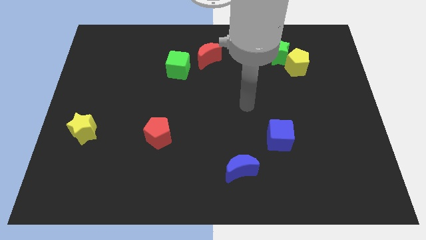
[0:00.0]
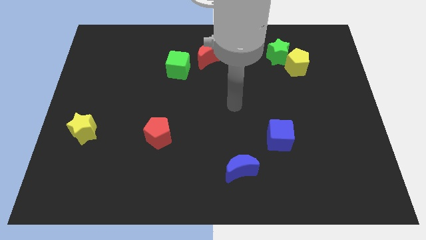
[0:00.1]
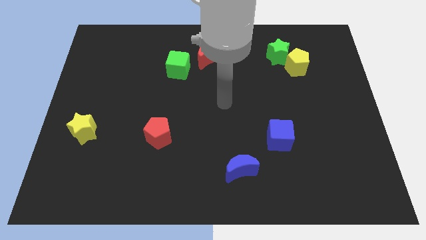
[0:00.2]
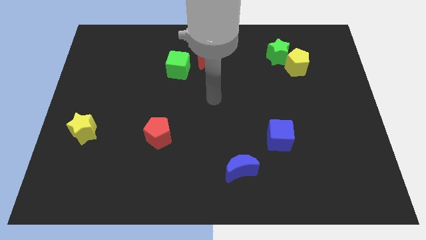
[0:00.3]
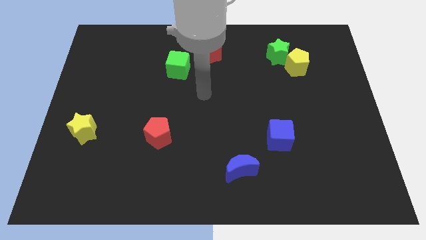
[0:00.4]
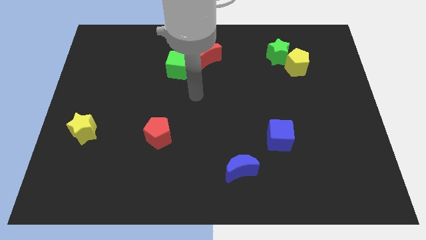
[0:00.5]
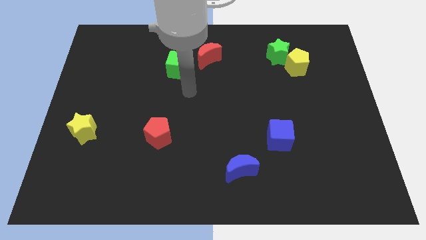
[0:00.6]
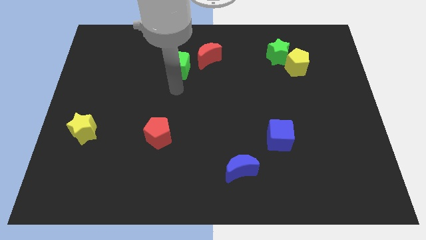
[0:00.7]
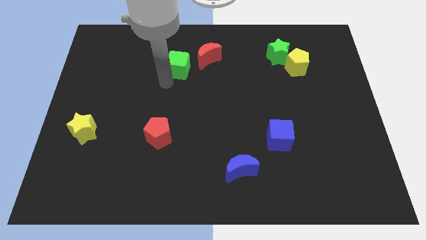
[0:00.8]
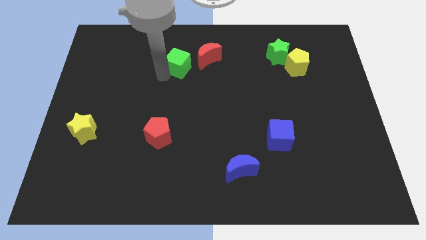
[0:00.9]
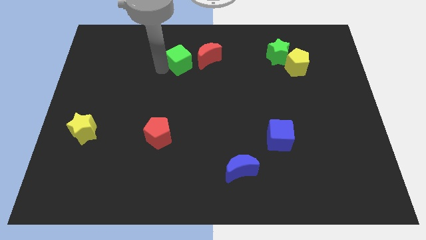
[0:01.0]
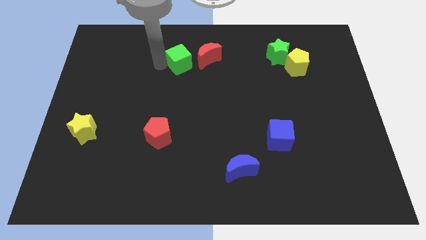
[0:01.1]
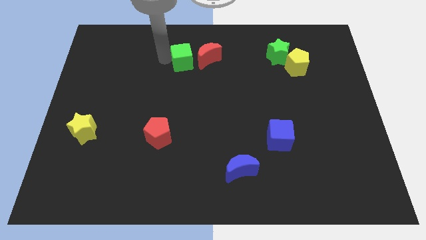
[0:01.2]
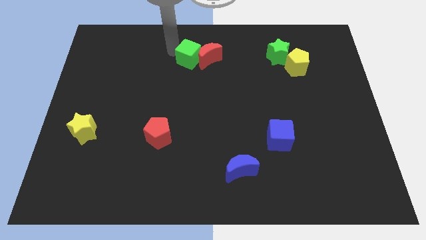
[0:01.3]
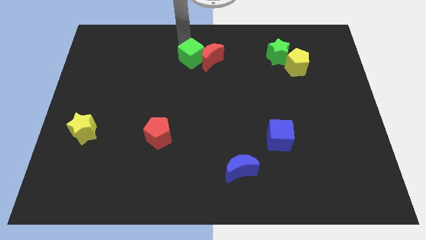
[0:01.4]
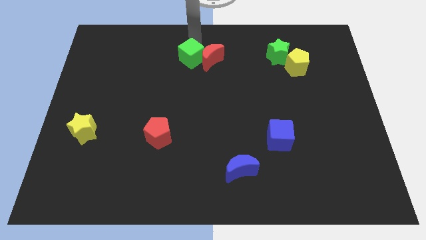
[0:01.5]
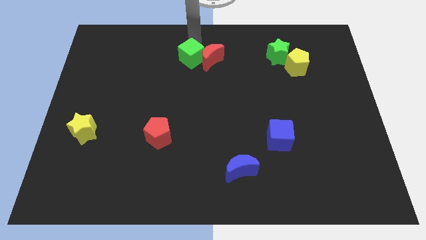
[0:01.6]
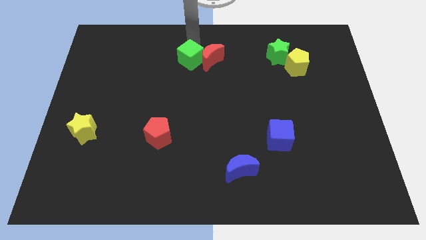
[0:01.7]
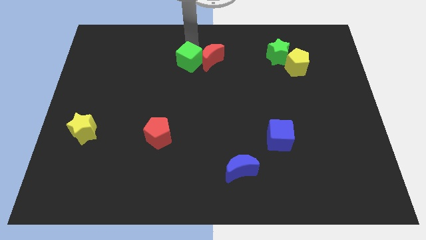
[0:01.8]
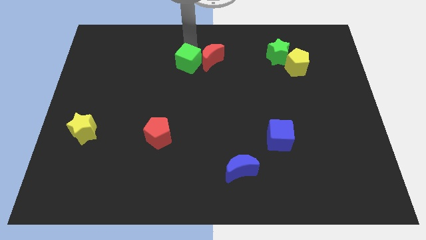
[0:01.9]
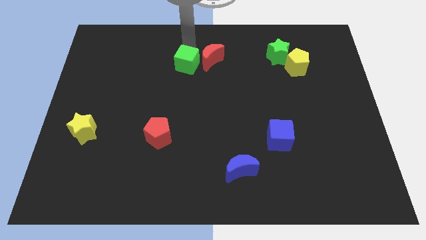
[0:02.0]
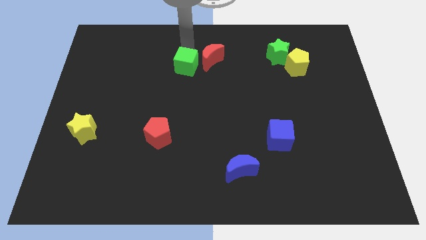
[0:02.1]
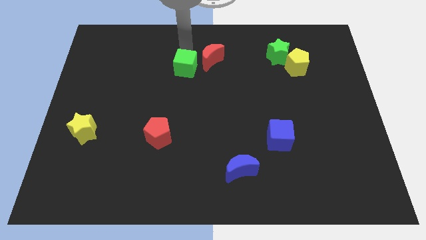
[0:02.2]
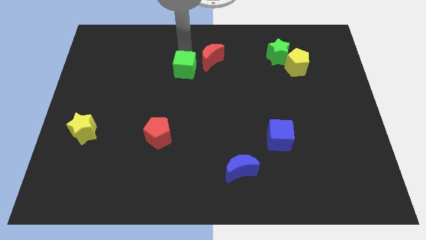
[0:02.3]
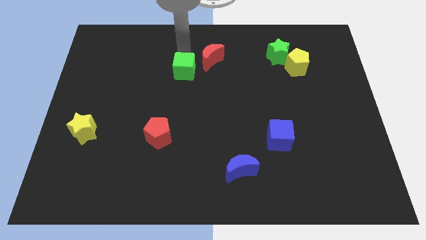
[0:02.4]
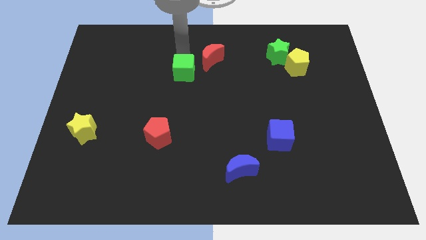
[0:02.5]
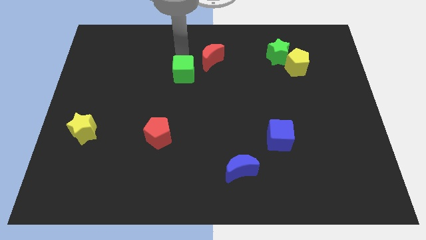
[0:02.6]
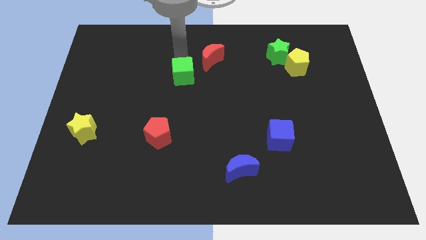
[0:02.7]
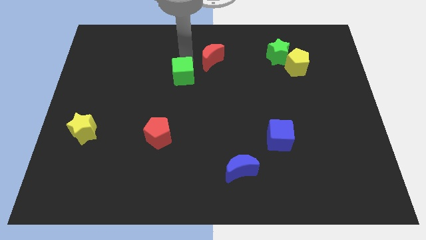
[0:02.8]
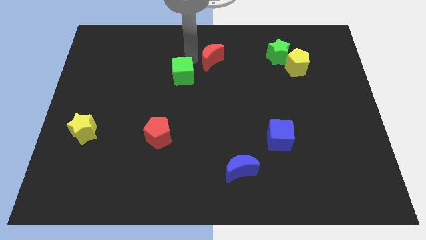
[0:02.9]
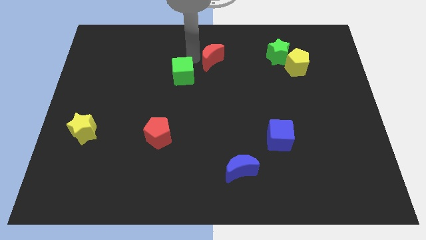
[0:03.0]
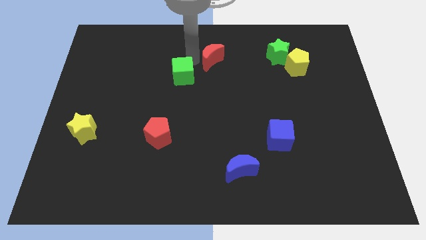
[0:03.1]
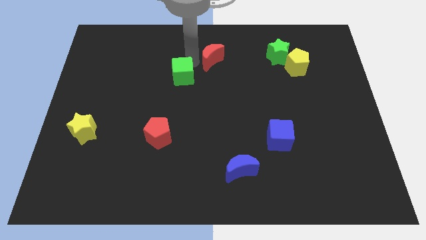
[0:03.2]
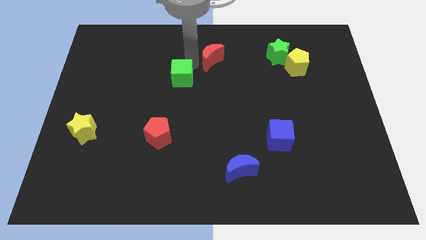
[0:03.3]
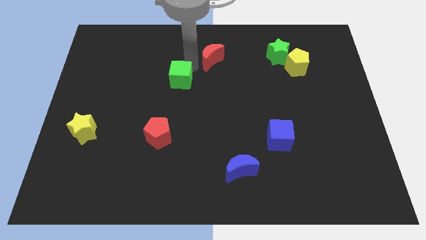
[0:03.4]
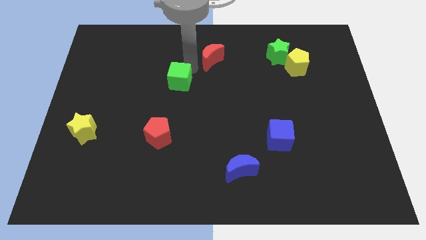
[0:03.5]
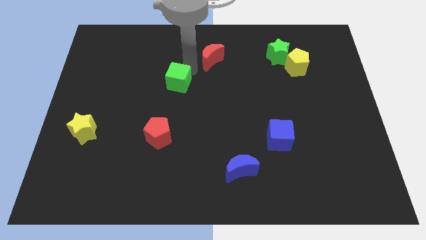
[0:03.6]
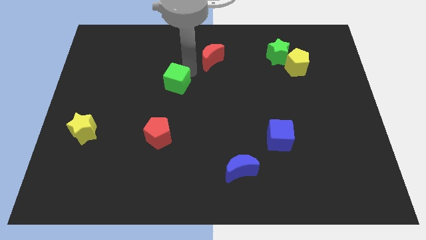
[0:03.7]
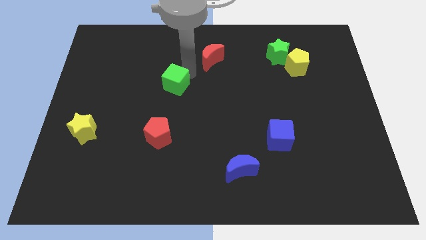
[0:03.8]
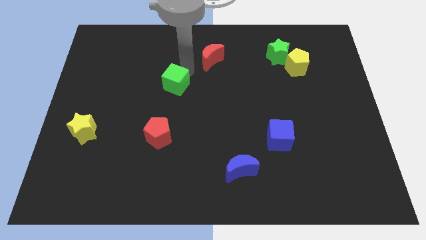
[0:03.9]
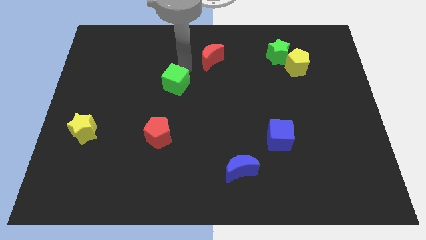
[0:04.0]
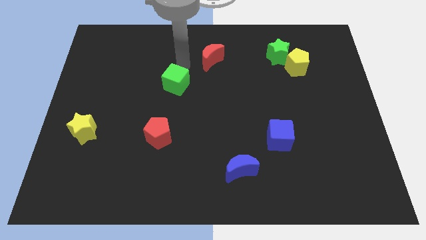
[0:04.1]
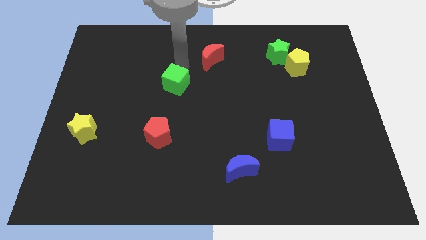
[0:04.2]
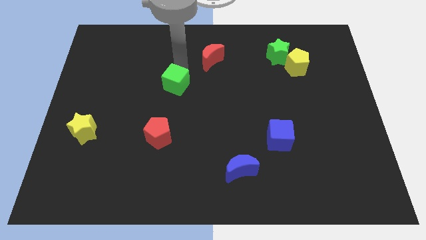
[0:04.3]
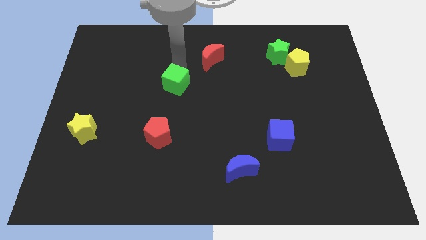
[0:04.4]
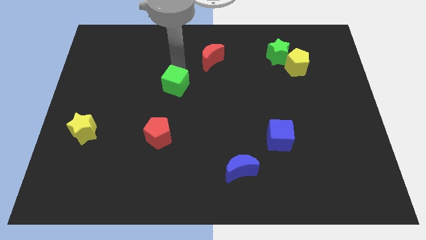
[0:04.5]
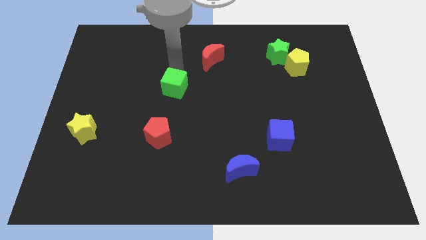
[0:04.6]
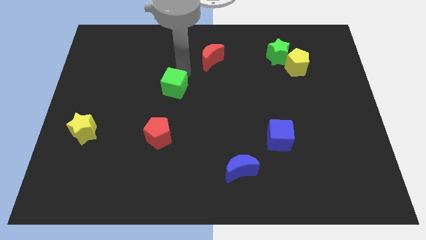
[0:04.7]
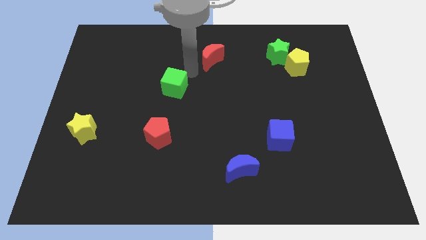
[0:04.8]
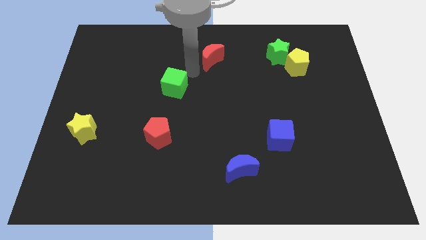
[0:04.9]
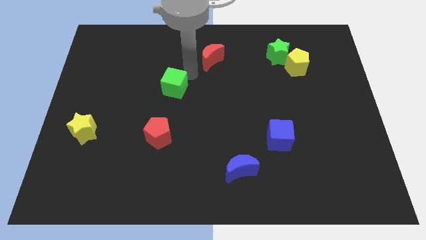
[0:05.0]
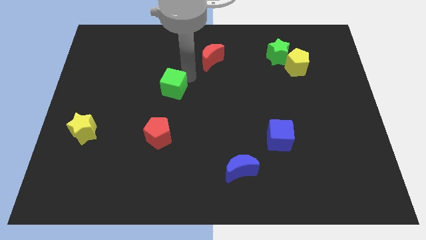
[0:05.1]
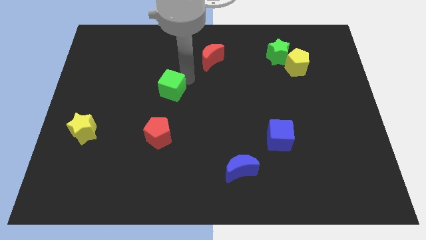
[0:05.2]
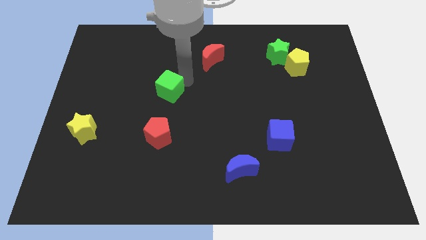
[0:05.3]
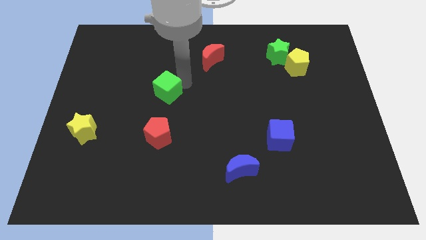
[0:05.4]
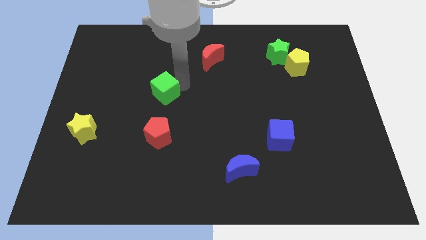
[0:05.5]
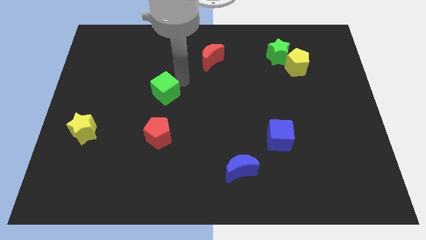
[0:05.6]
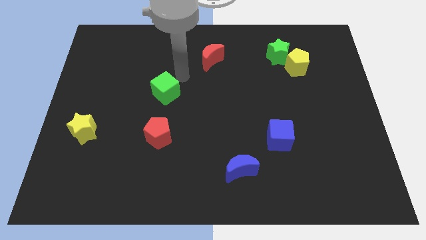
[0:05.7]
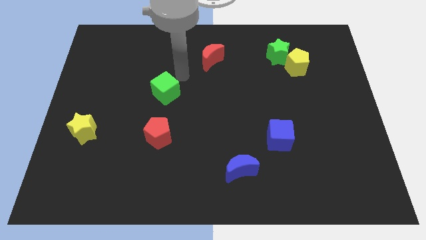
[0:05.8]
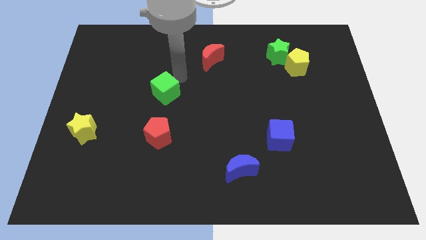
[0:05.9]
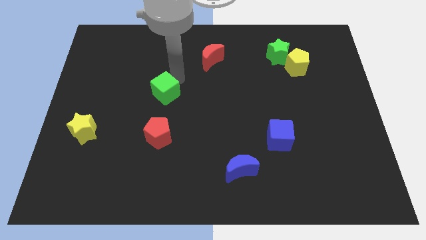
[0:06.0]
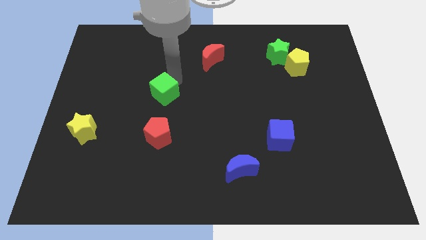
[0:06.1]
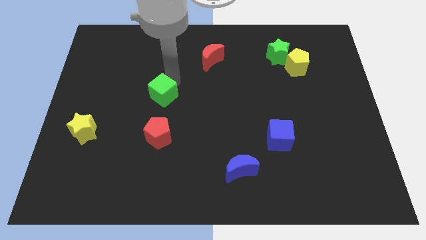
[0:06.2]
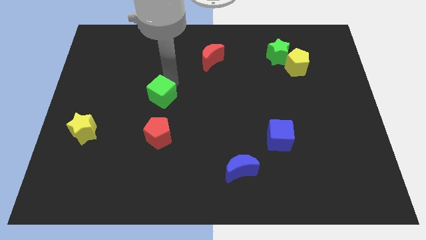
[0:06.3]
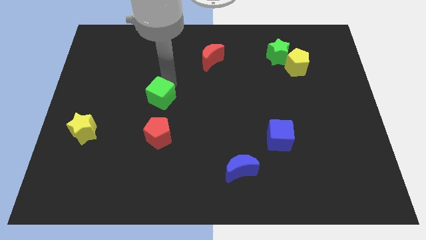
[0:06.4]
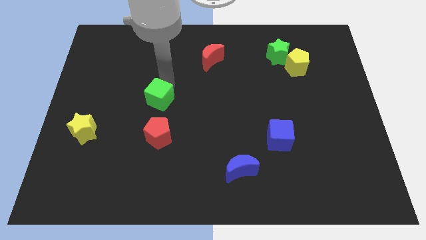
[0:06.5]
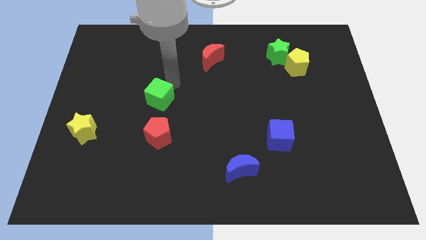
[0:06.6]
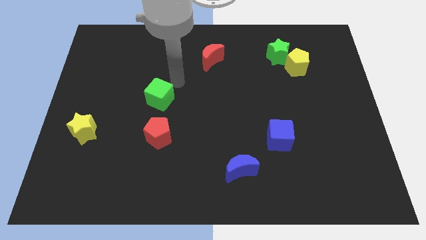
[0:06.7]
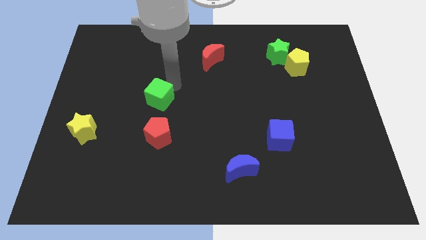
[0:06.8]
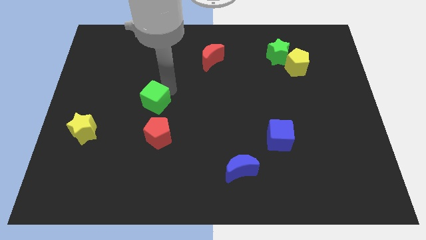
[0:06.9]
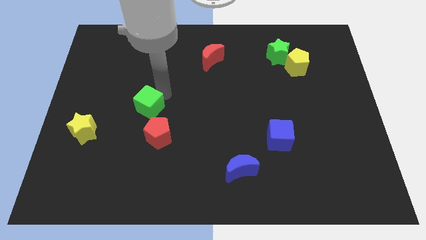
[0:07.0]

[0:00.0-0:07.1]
push the green cube to the top left side of the red pentagon
